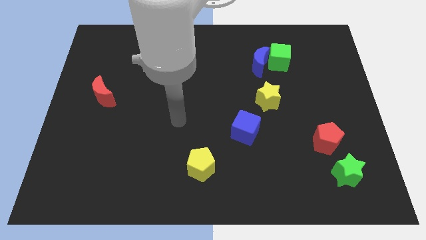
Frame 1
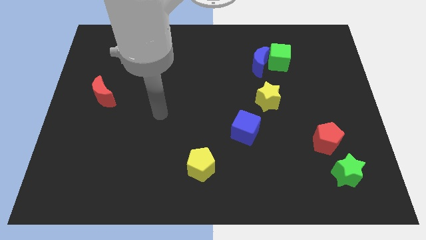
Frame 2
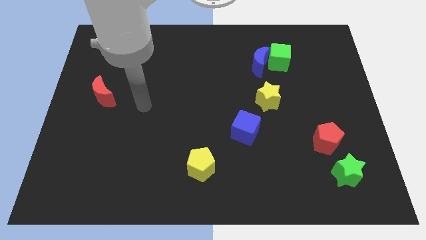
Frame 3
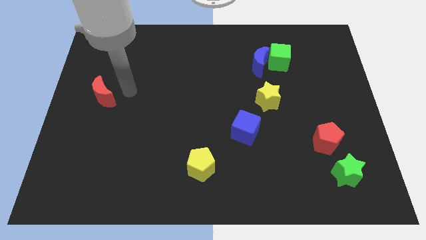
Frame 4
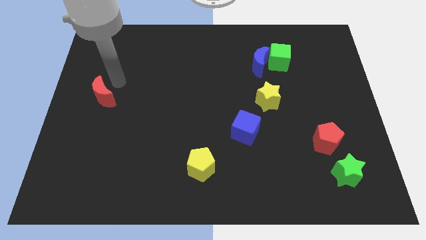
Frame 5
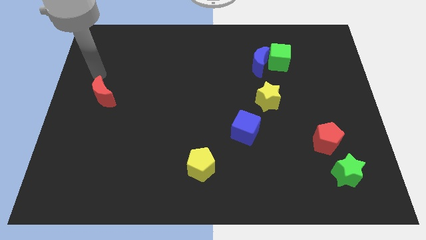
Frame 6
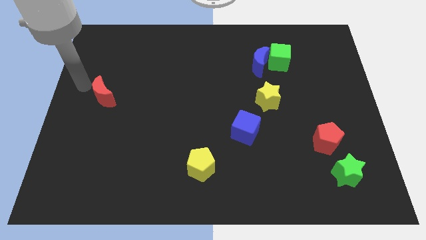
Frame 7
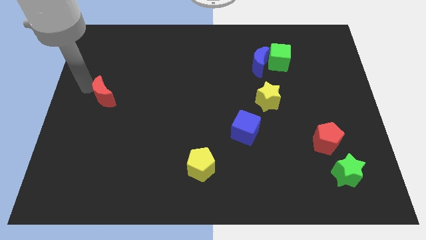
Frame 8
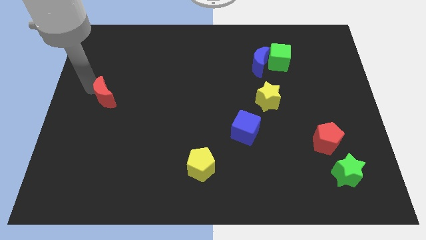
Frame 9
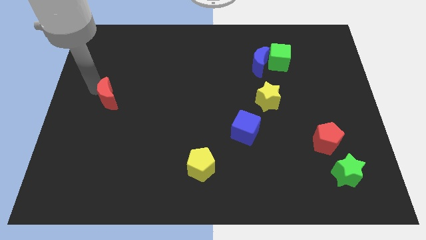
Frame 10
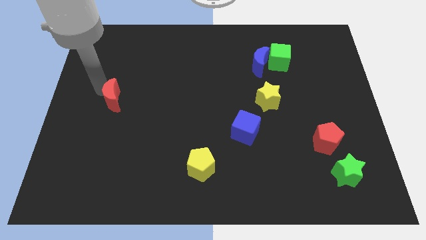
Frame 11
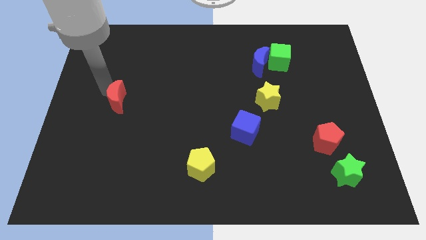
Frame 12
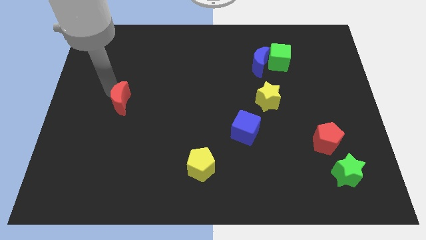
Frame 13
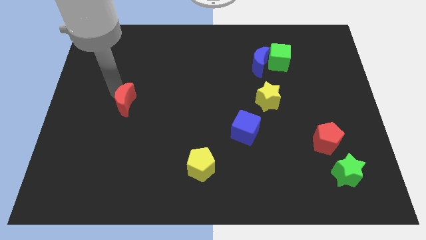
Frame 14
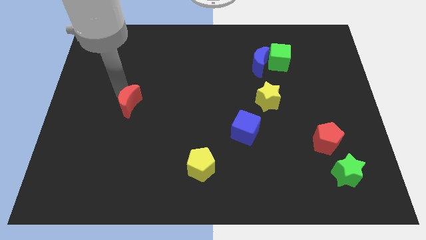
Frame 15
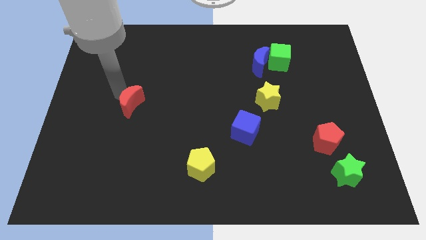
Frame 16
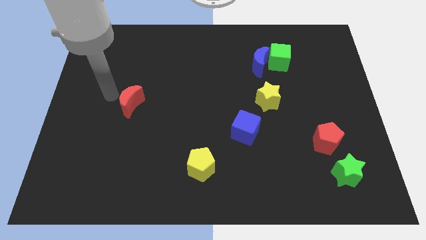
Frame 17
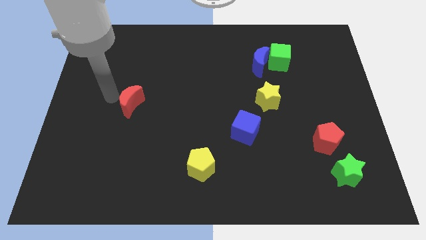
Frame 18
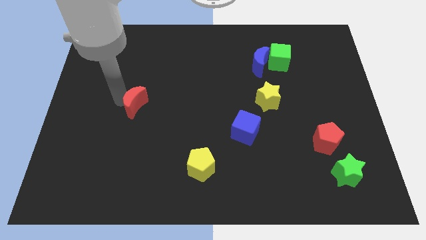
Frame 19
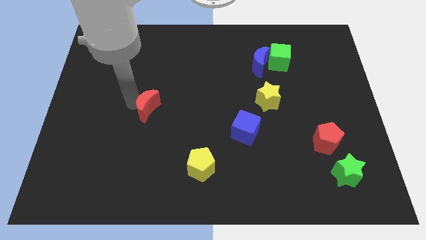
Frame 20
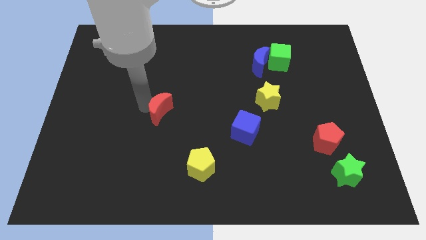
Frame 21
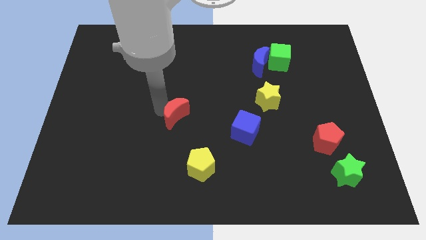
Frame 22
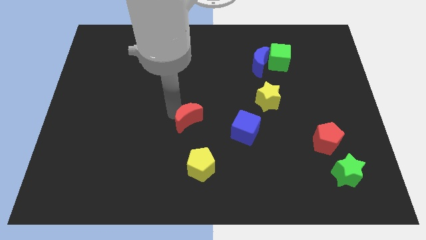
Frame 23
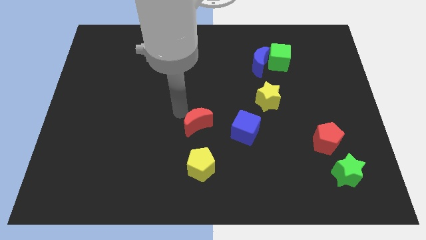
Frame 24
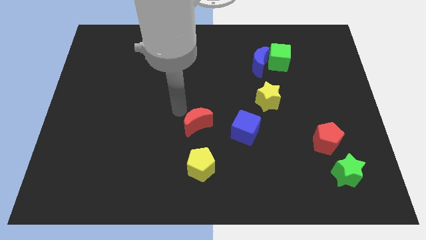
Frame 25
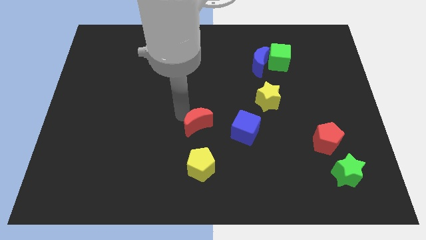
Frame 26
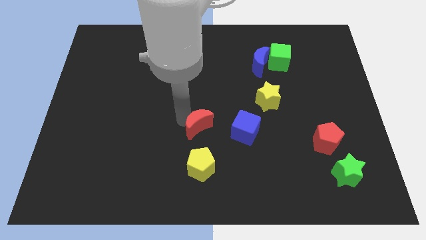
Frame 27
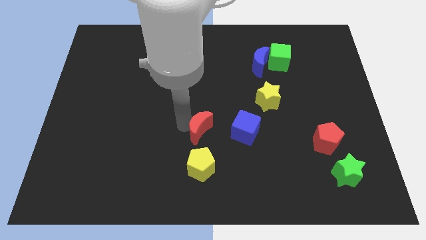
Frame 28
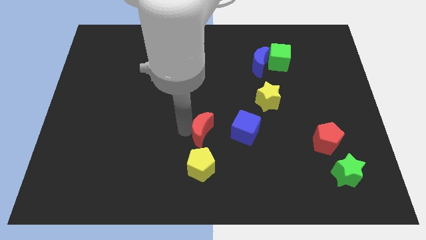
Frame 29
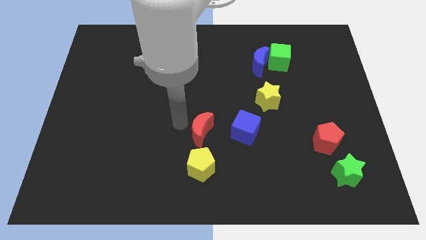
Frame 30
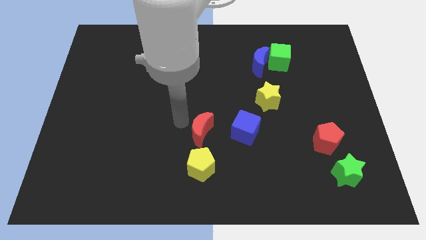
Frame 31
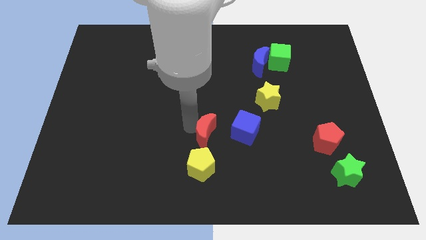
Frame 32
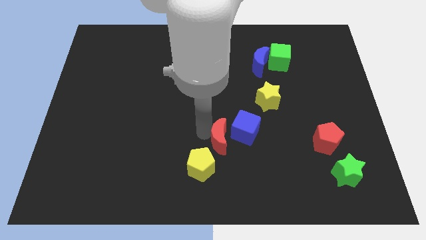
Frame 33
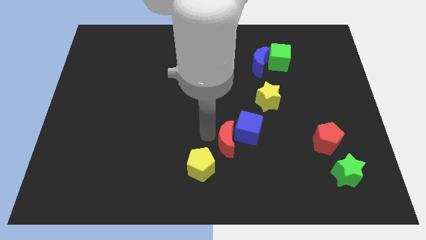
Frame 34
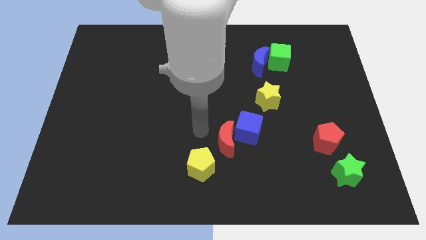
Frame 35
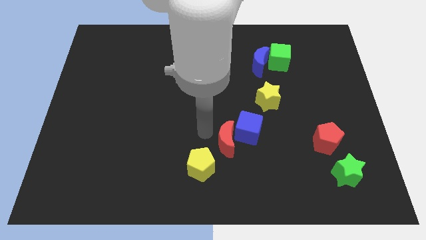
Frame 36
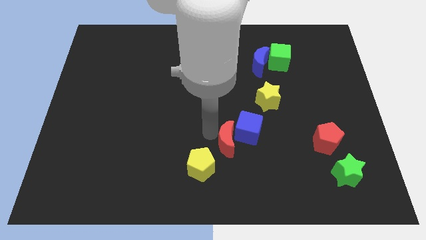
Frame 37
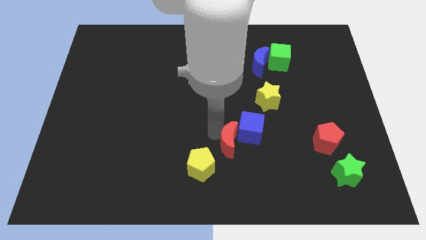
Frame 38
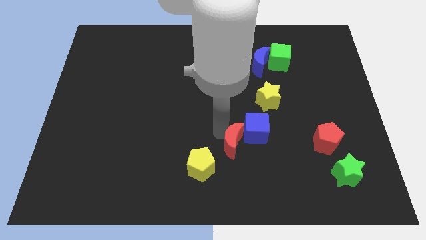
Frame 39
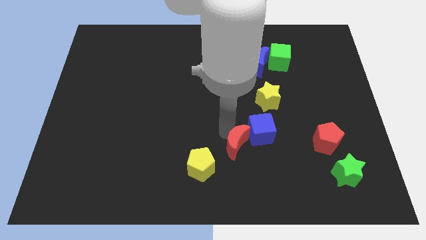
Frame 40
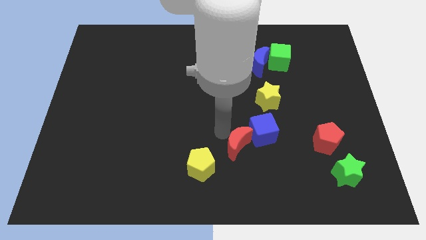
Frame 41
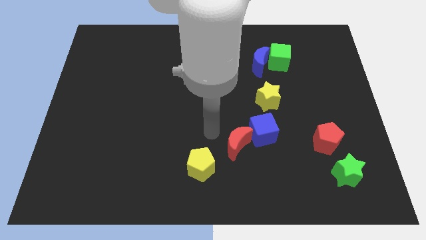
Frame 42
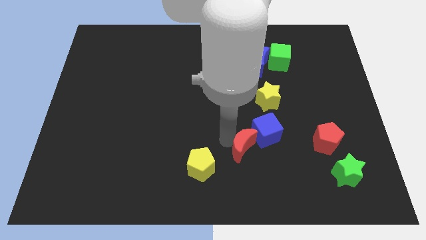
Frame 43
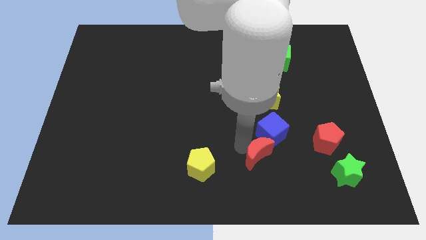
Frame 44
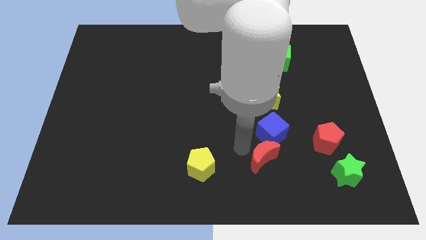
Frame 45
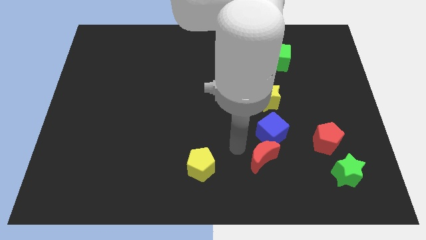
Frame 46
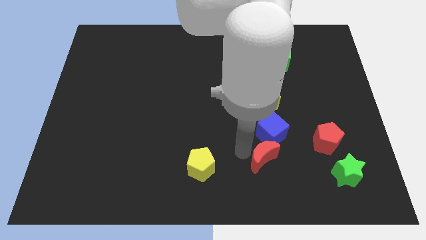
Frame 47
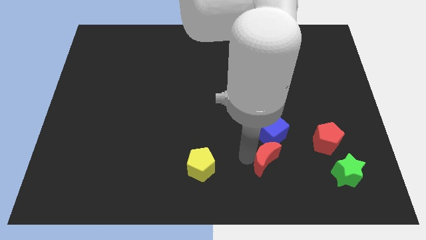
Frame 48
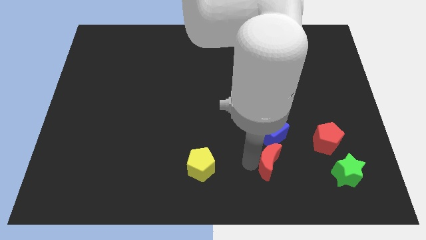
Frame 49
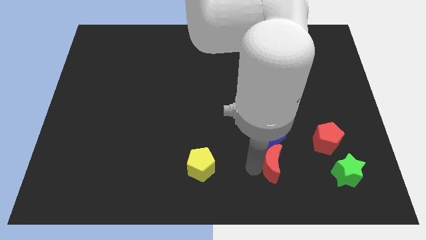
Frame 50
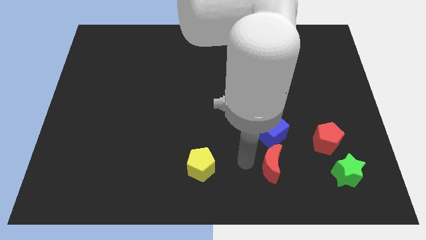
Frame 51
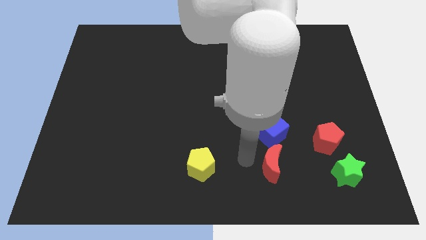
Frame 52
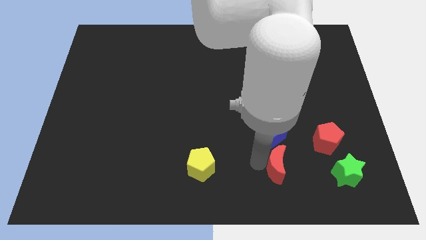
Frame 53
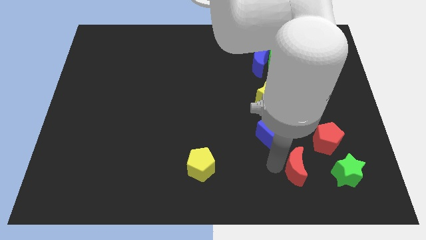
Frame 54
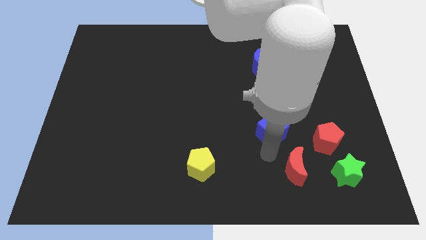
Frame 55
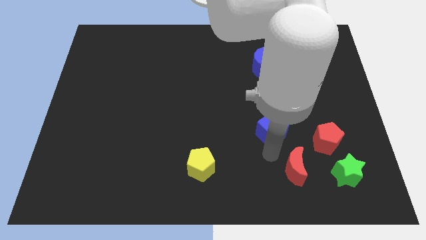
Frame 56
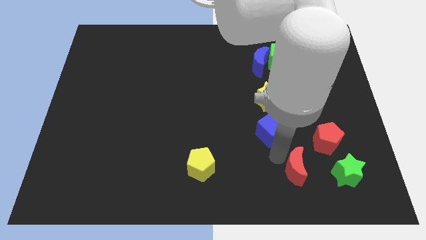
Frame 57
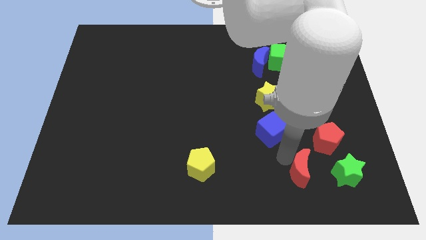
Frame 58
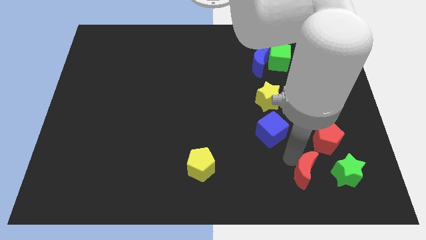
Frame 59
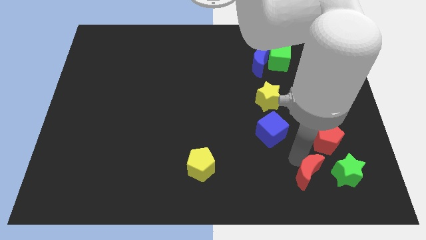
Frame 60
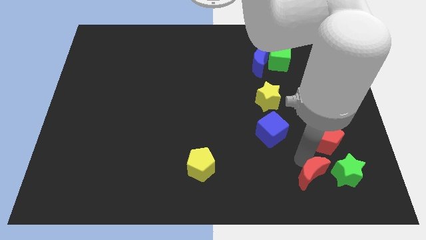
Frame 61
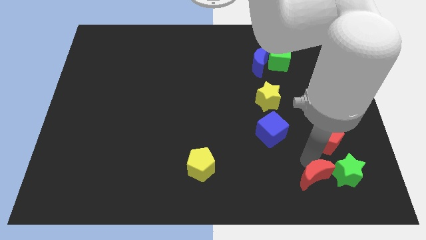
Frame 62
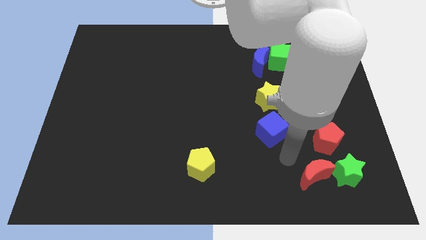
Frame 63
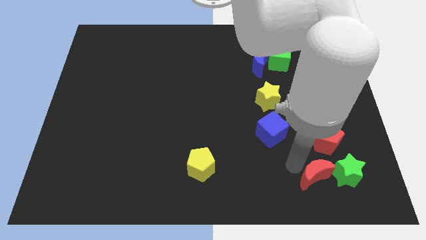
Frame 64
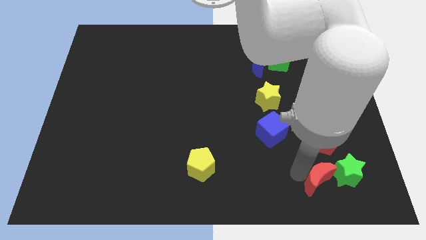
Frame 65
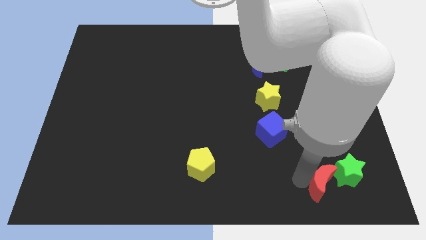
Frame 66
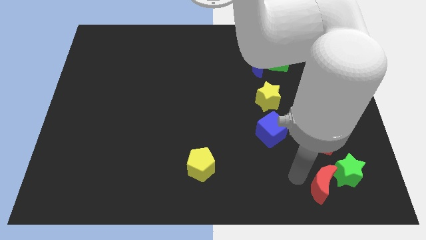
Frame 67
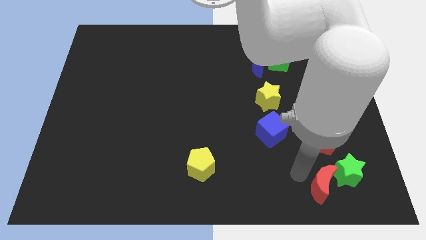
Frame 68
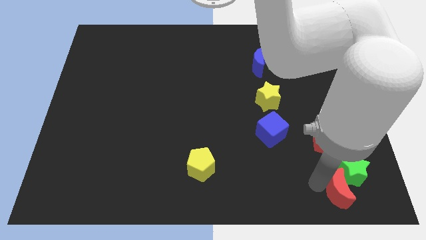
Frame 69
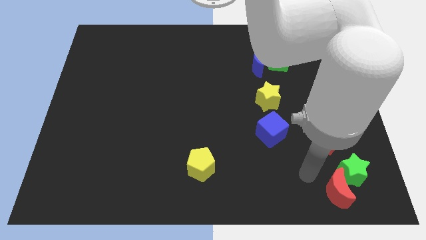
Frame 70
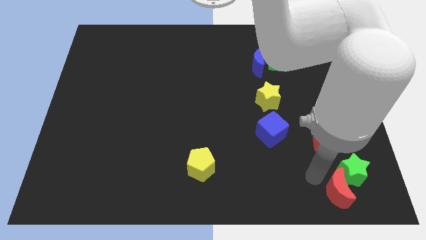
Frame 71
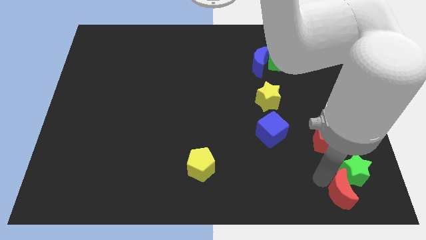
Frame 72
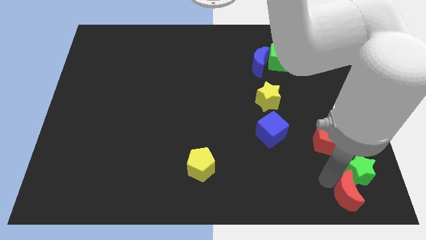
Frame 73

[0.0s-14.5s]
move the red moon to the bottom right corner
